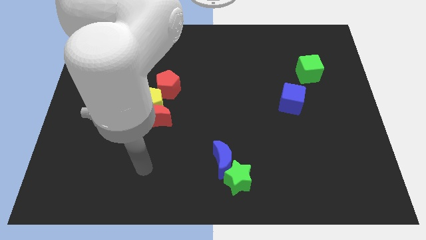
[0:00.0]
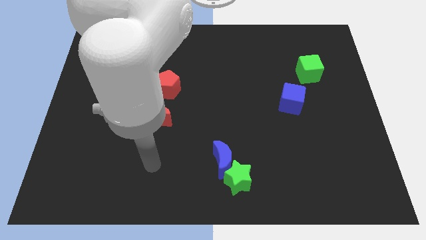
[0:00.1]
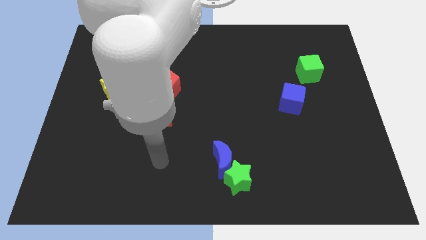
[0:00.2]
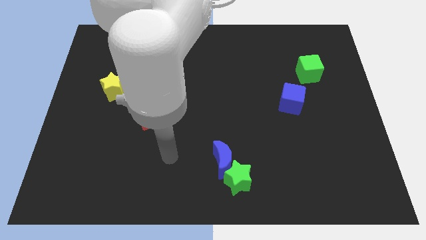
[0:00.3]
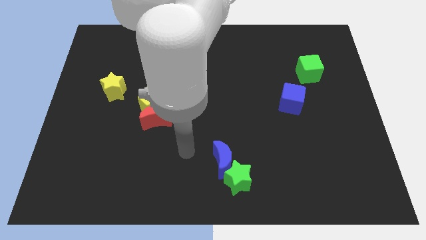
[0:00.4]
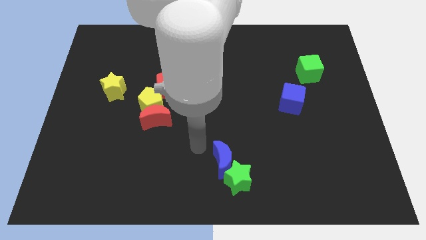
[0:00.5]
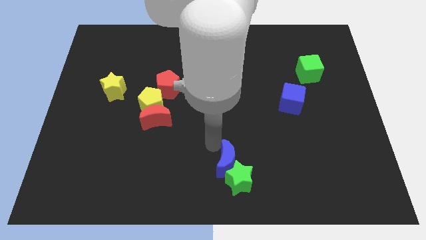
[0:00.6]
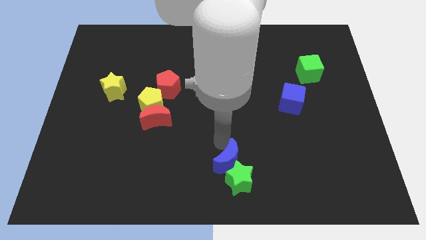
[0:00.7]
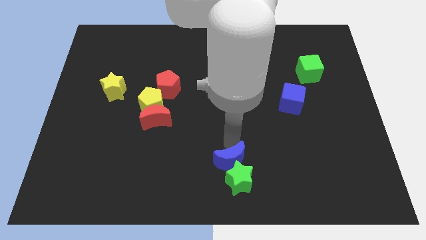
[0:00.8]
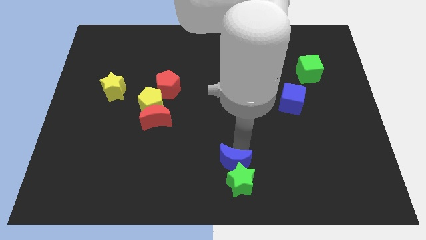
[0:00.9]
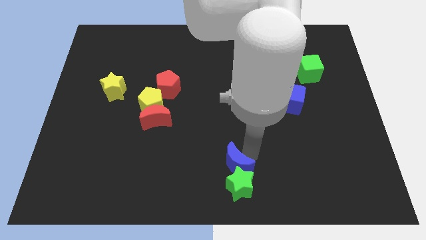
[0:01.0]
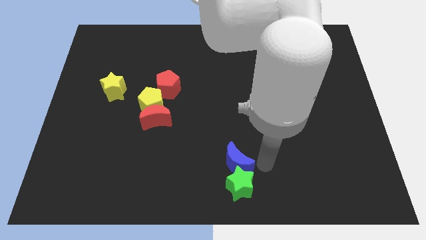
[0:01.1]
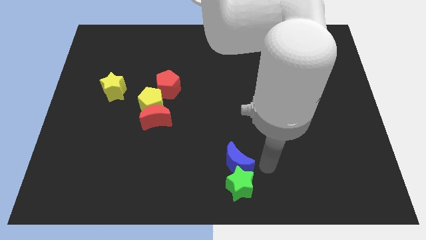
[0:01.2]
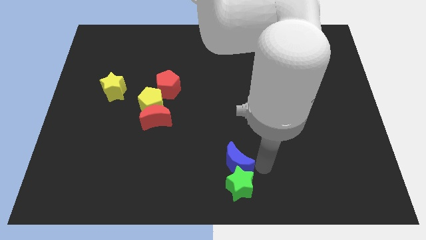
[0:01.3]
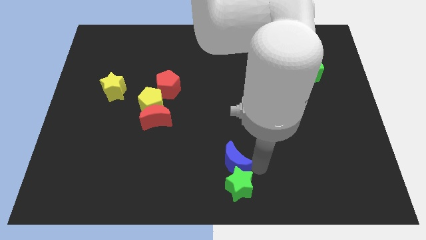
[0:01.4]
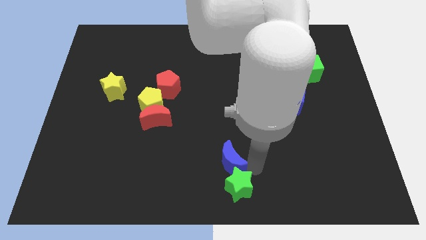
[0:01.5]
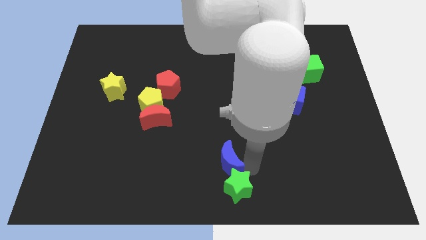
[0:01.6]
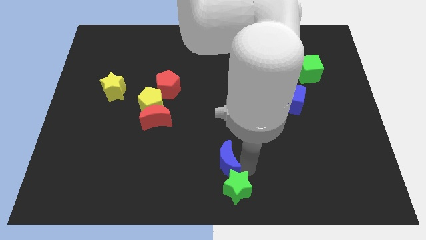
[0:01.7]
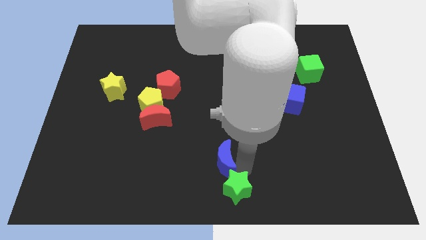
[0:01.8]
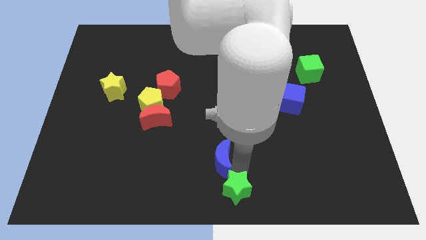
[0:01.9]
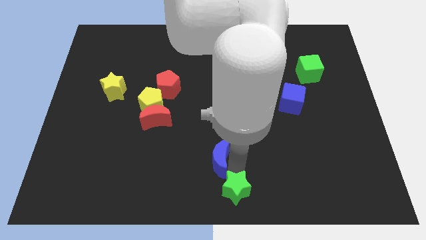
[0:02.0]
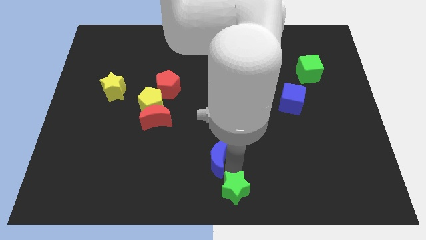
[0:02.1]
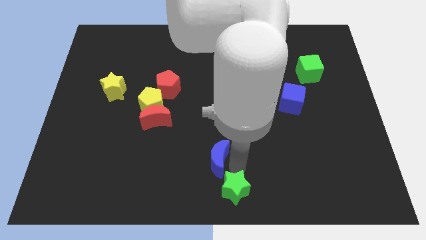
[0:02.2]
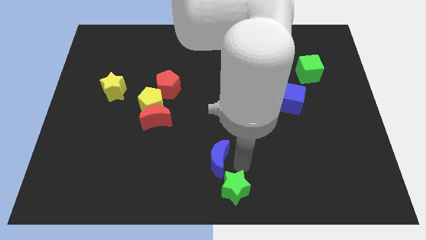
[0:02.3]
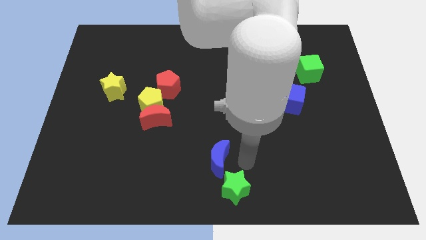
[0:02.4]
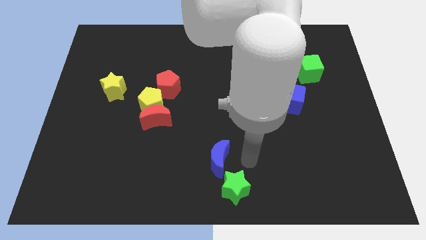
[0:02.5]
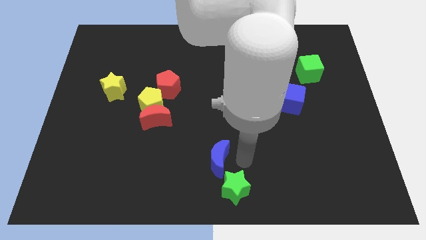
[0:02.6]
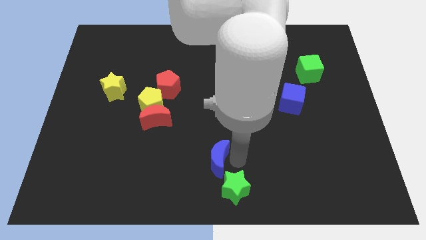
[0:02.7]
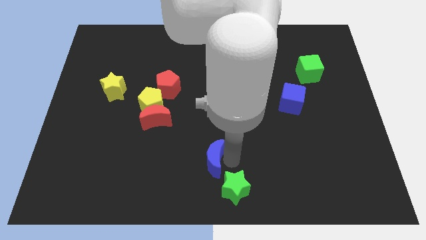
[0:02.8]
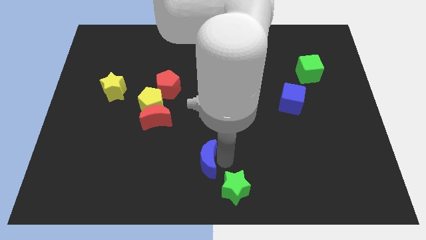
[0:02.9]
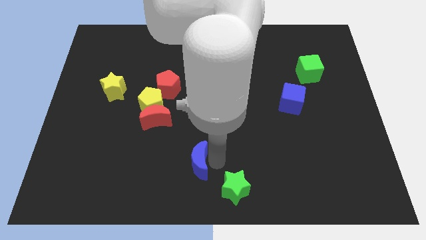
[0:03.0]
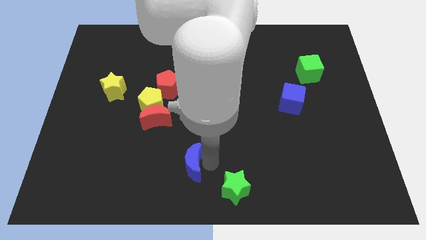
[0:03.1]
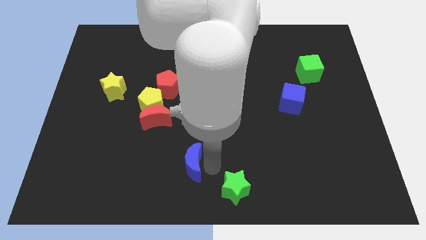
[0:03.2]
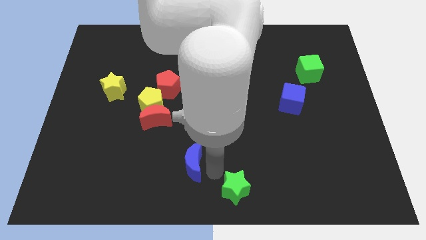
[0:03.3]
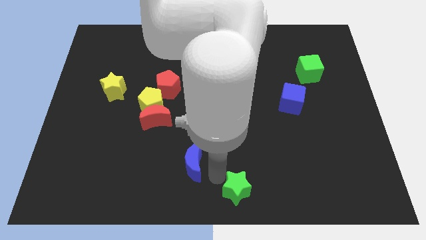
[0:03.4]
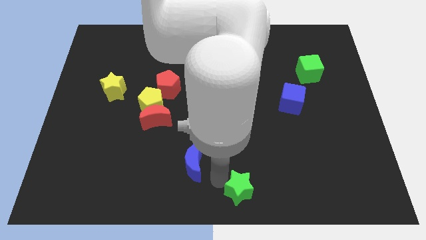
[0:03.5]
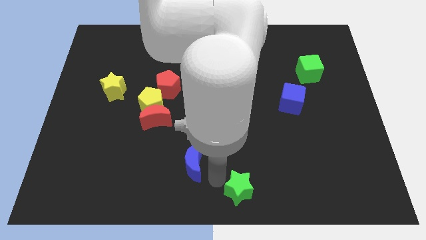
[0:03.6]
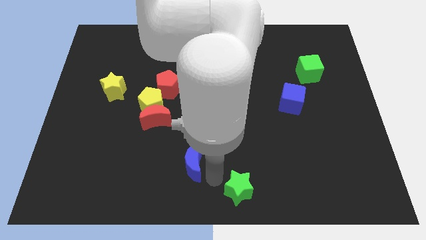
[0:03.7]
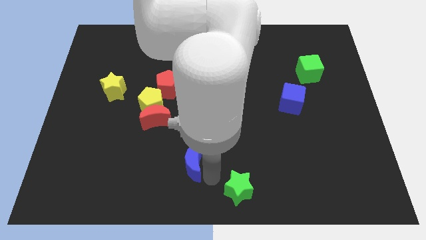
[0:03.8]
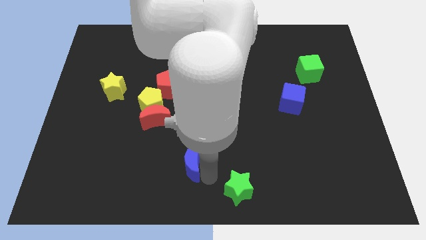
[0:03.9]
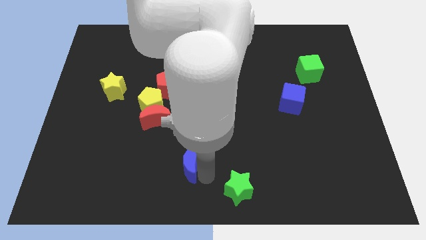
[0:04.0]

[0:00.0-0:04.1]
slightly move the blue moon left

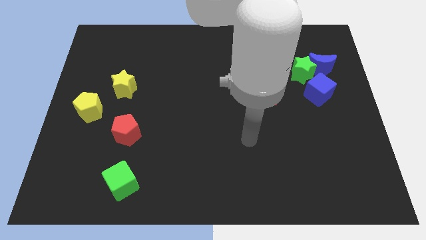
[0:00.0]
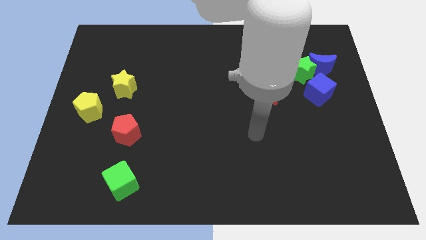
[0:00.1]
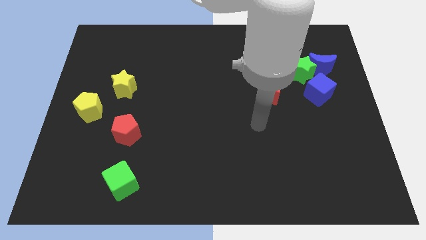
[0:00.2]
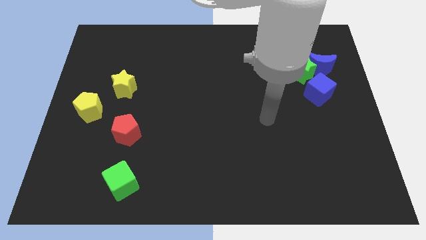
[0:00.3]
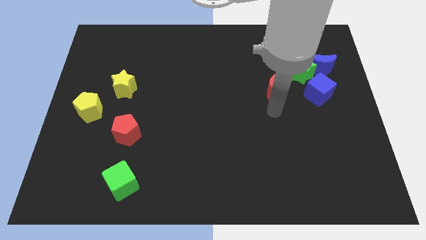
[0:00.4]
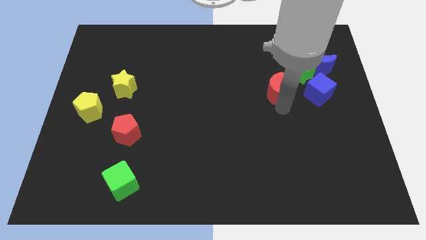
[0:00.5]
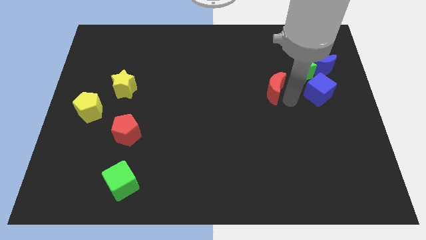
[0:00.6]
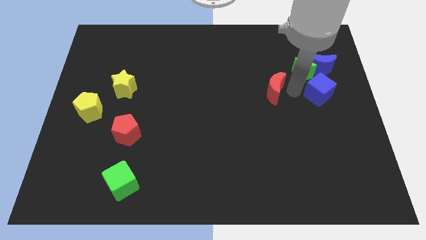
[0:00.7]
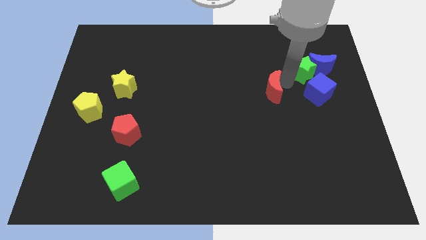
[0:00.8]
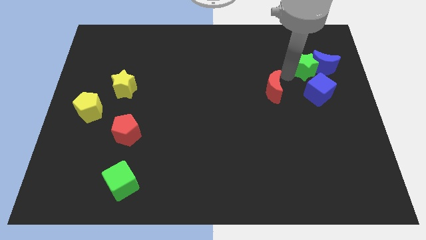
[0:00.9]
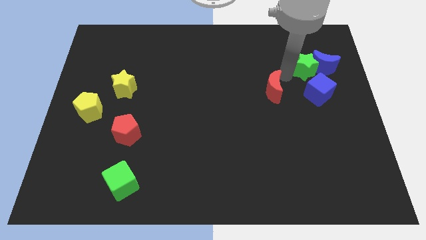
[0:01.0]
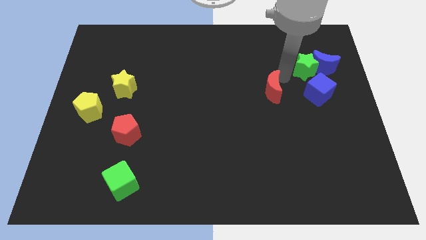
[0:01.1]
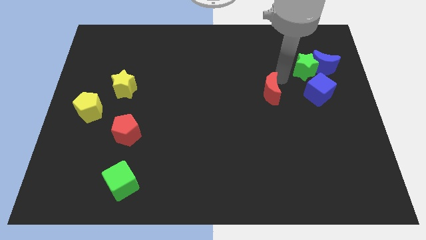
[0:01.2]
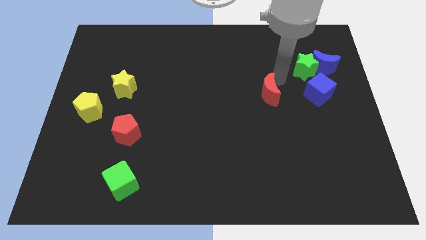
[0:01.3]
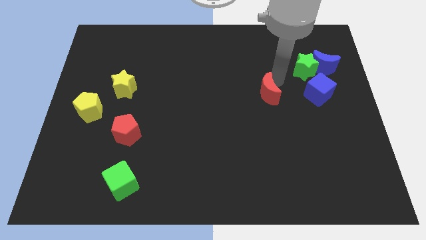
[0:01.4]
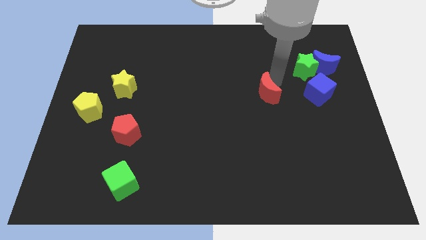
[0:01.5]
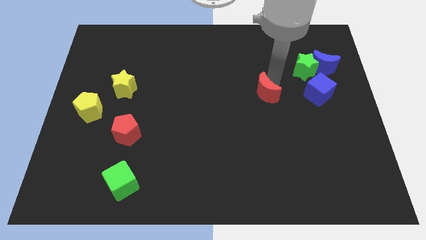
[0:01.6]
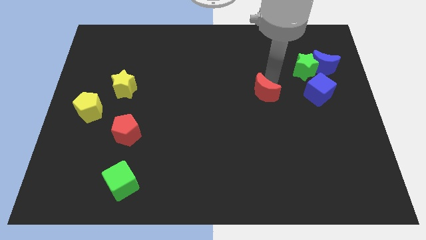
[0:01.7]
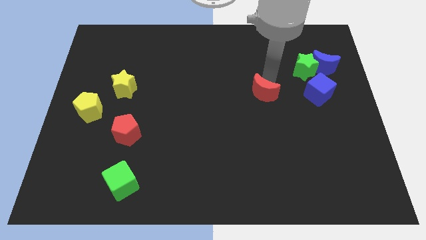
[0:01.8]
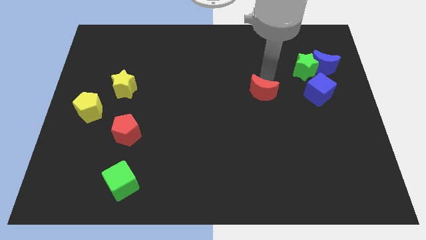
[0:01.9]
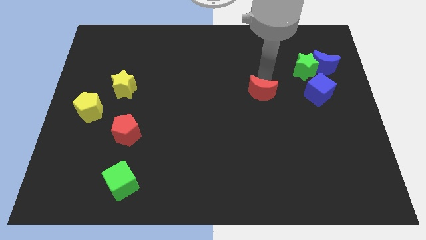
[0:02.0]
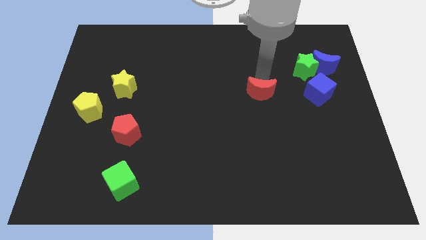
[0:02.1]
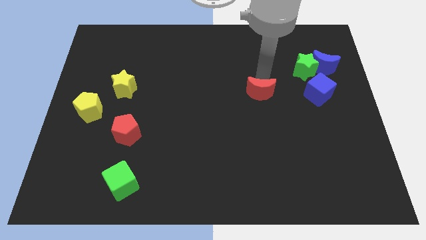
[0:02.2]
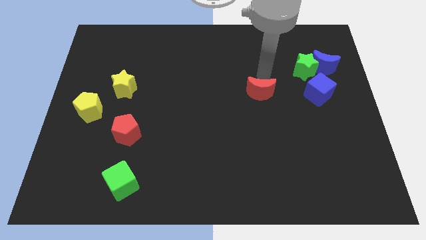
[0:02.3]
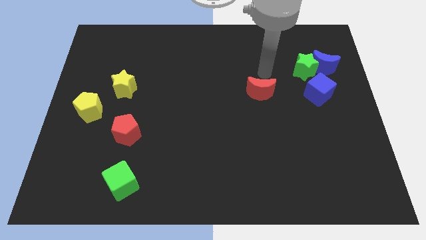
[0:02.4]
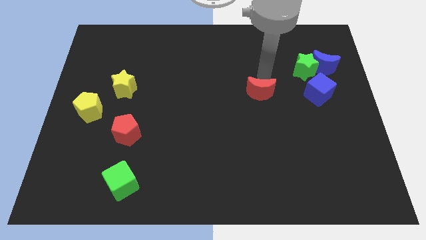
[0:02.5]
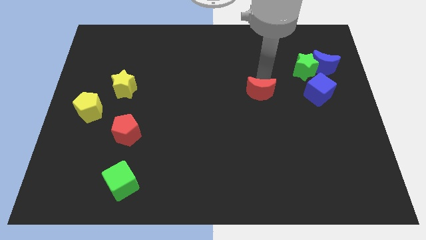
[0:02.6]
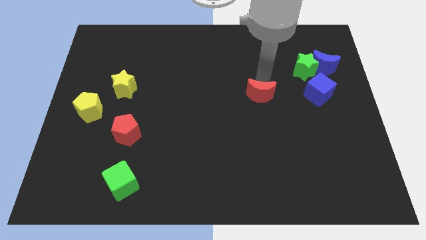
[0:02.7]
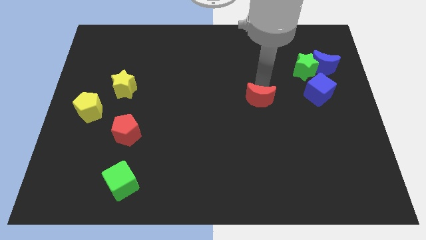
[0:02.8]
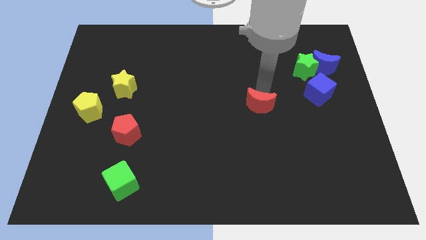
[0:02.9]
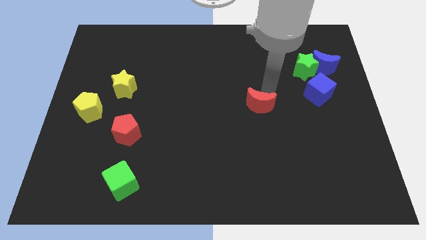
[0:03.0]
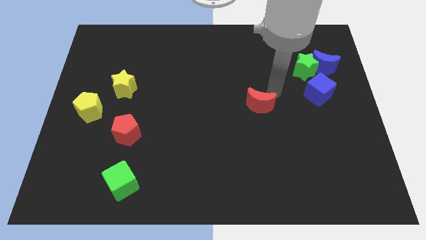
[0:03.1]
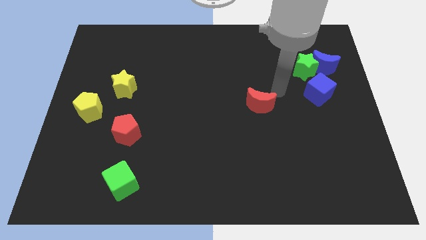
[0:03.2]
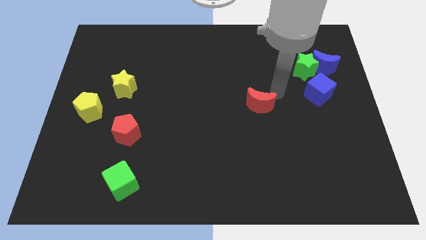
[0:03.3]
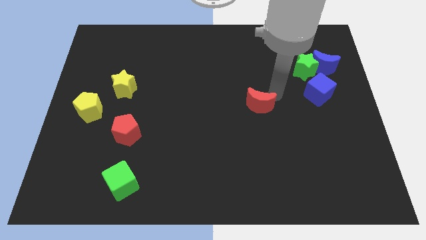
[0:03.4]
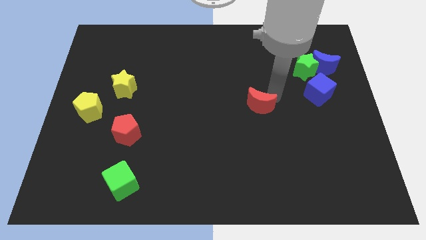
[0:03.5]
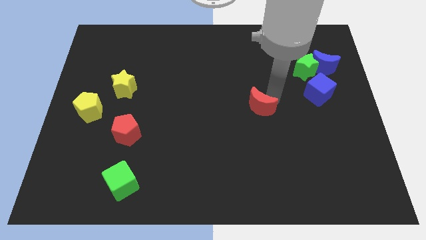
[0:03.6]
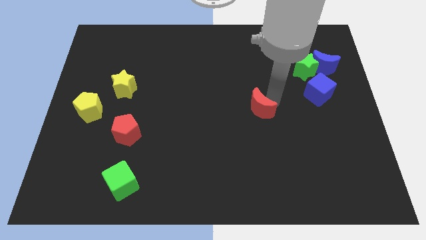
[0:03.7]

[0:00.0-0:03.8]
move the red moon down and then left a bit
